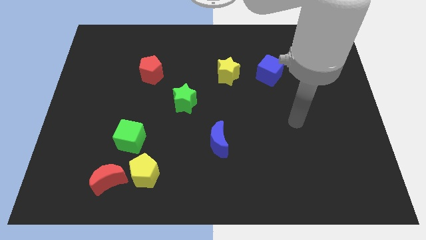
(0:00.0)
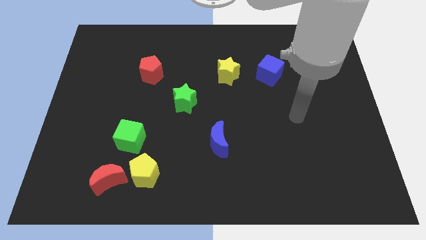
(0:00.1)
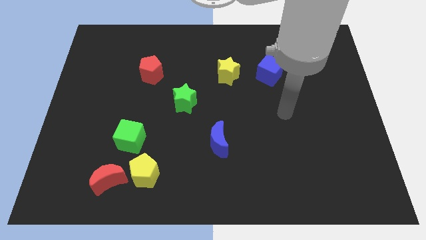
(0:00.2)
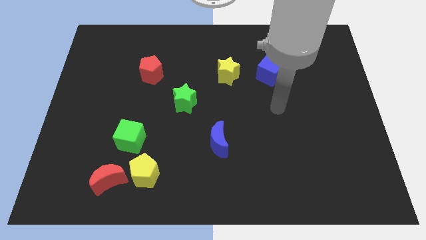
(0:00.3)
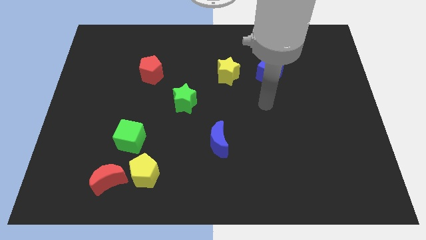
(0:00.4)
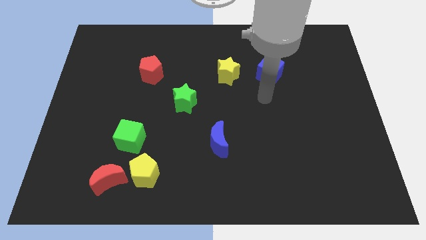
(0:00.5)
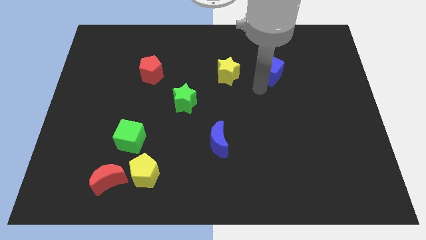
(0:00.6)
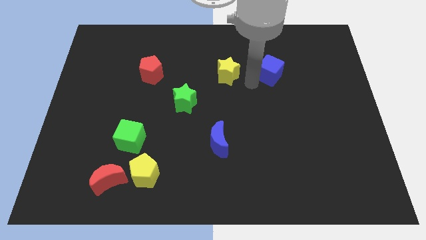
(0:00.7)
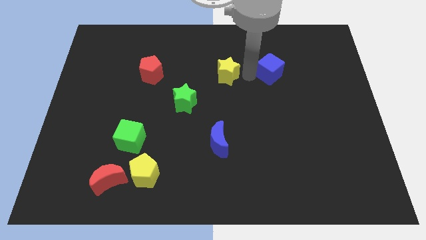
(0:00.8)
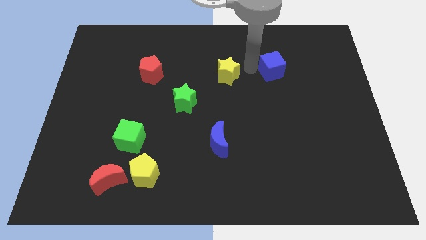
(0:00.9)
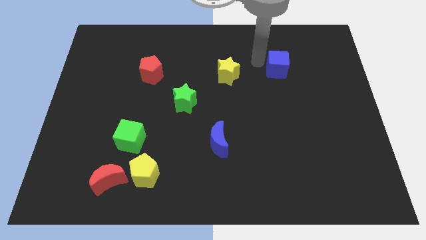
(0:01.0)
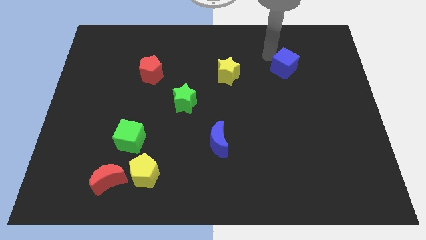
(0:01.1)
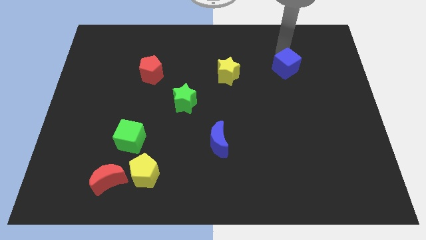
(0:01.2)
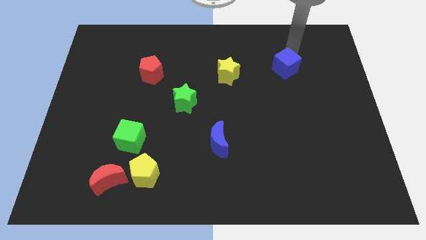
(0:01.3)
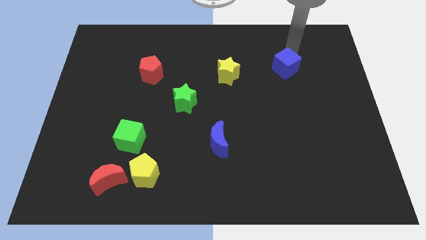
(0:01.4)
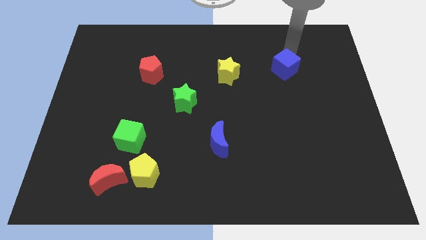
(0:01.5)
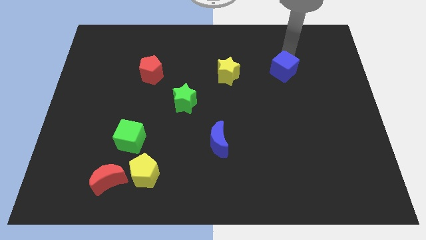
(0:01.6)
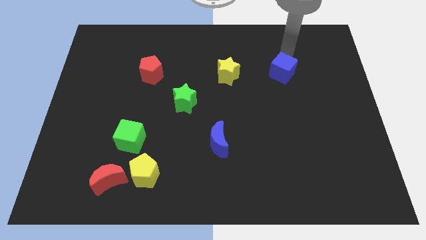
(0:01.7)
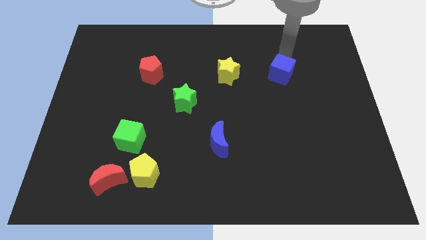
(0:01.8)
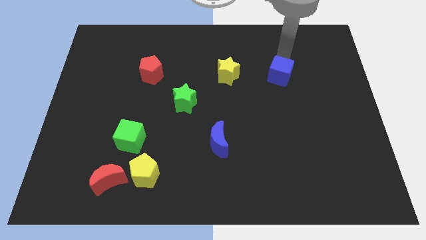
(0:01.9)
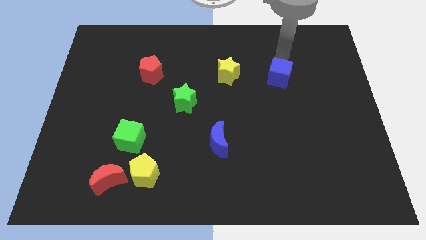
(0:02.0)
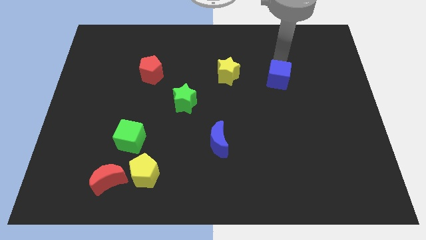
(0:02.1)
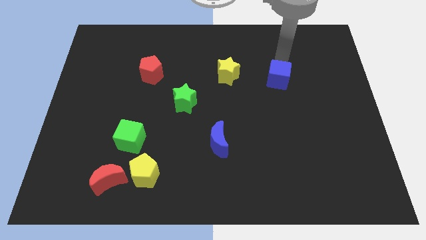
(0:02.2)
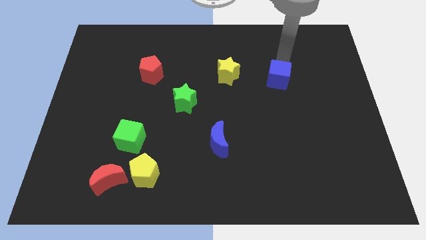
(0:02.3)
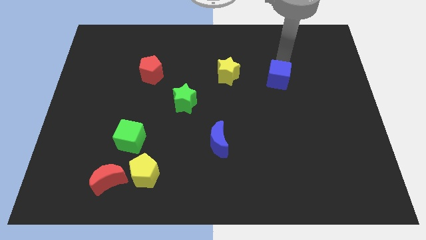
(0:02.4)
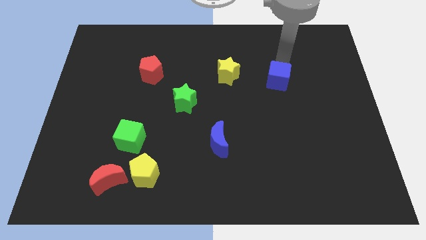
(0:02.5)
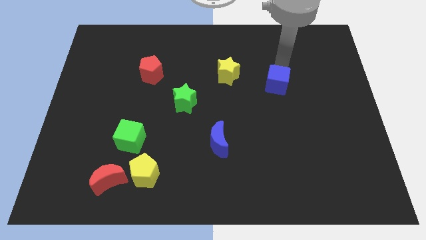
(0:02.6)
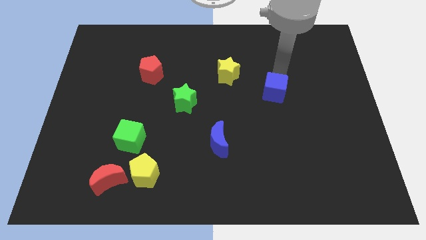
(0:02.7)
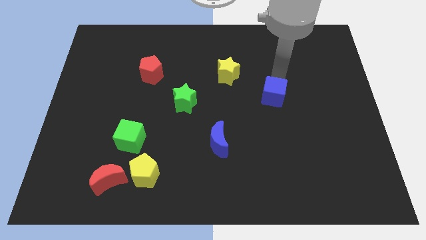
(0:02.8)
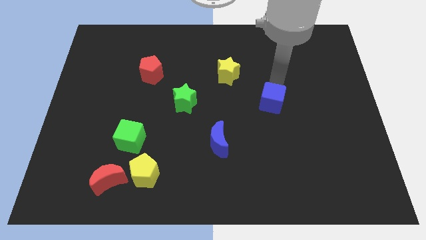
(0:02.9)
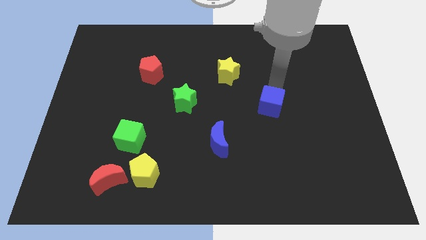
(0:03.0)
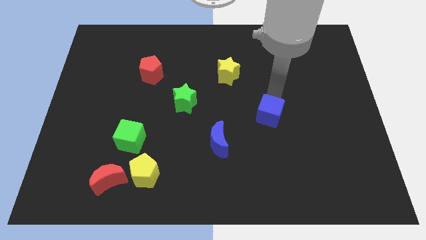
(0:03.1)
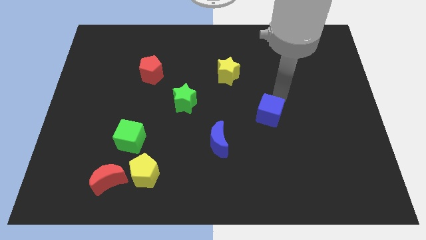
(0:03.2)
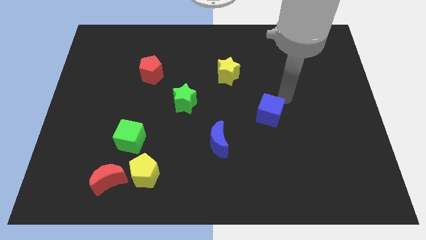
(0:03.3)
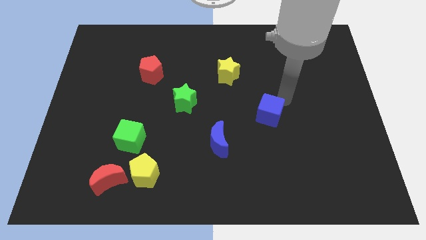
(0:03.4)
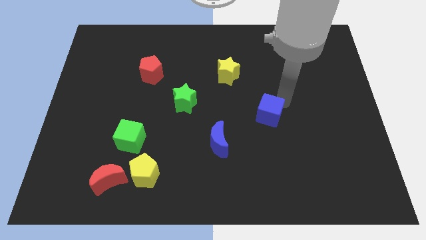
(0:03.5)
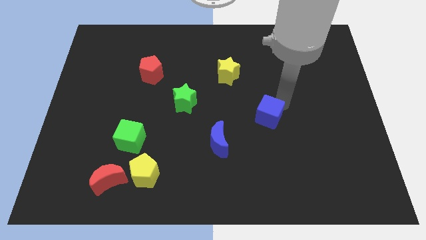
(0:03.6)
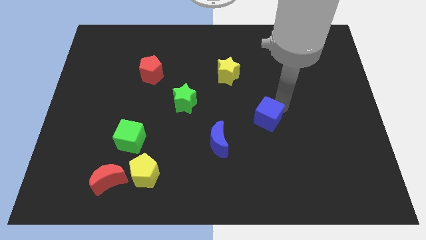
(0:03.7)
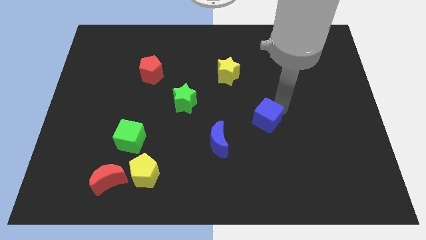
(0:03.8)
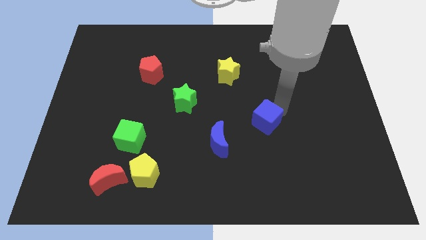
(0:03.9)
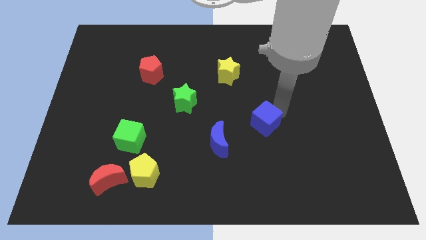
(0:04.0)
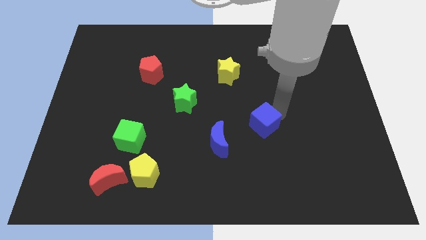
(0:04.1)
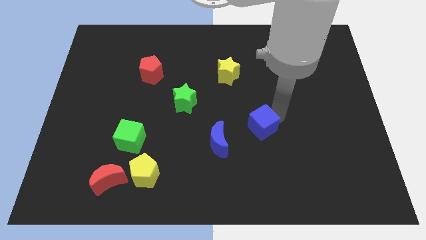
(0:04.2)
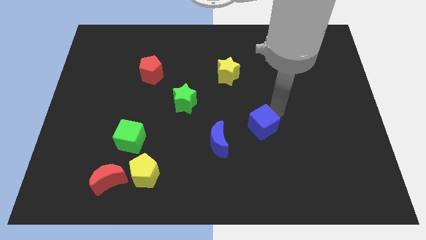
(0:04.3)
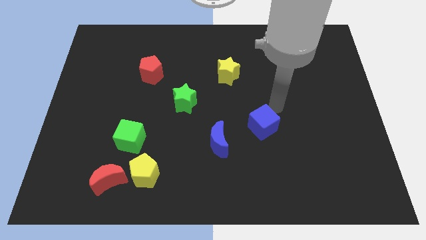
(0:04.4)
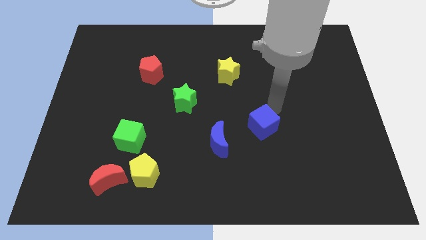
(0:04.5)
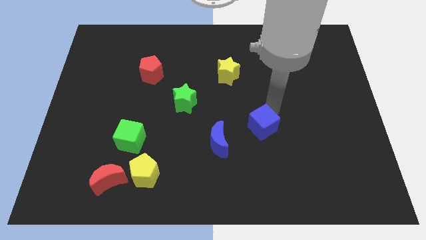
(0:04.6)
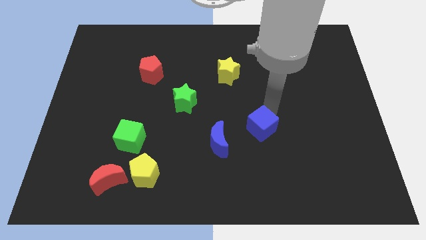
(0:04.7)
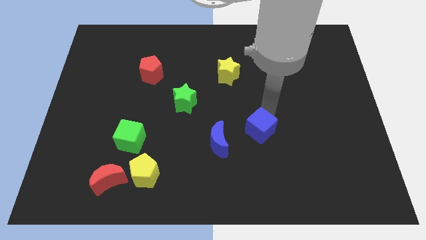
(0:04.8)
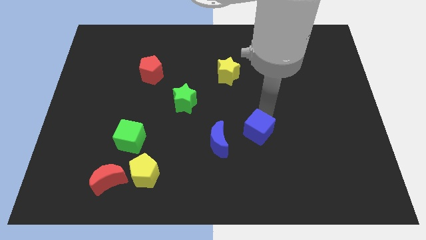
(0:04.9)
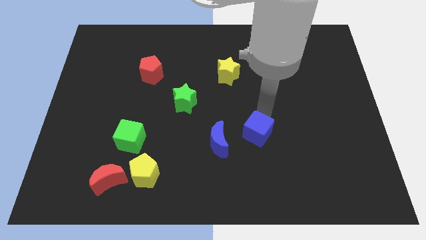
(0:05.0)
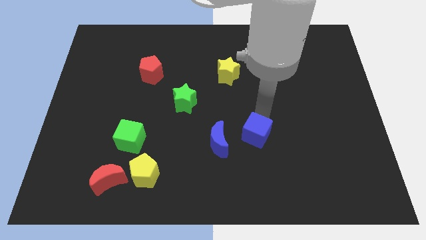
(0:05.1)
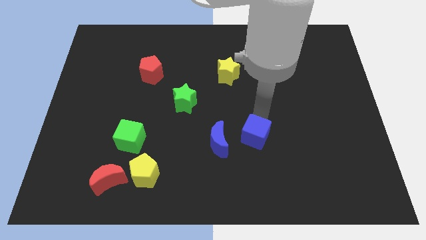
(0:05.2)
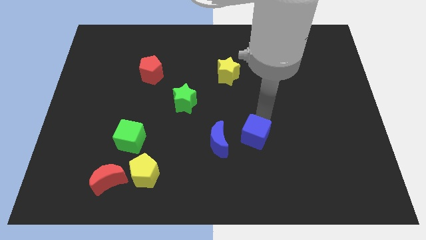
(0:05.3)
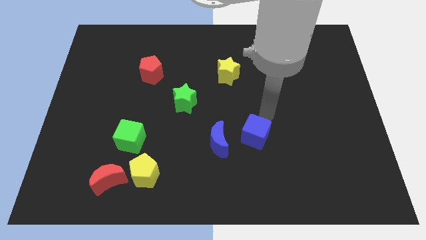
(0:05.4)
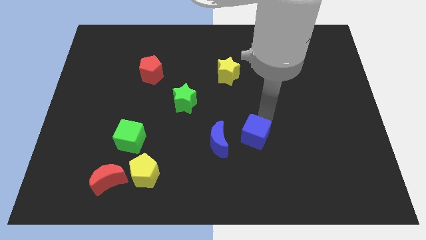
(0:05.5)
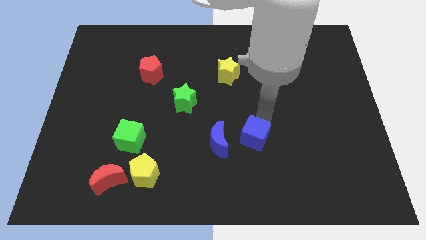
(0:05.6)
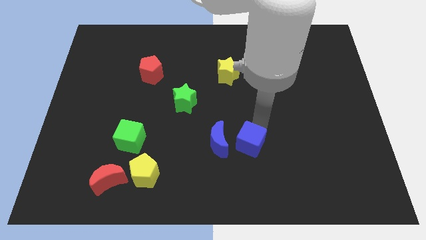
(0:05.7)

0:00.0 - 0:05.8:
push the blue cube to the bottom right side of the blue moon

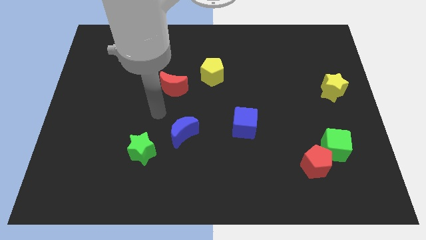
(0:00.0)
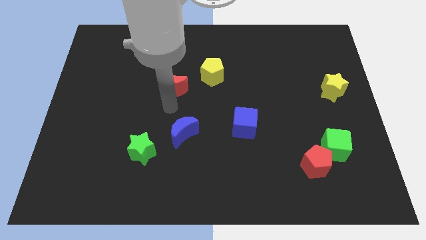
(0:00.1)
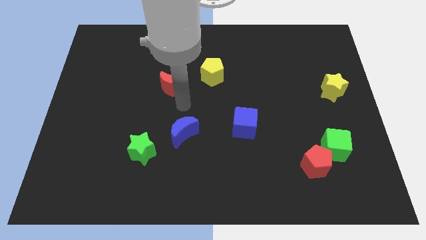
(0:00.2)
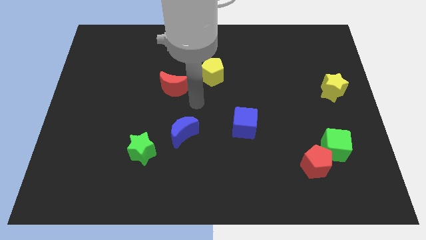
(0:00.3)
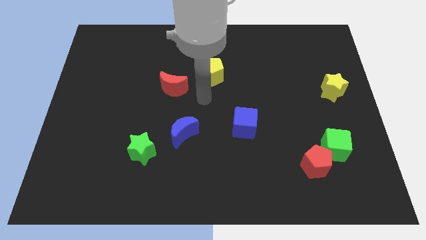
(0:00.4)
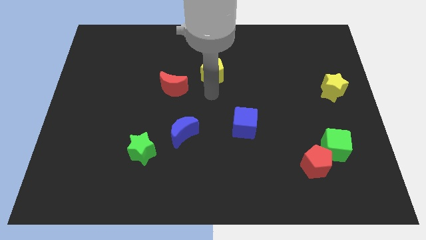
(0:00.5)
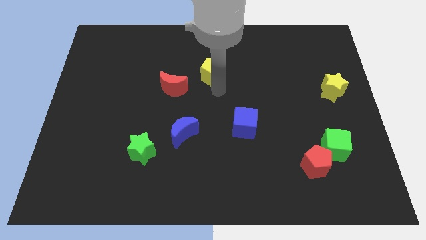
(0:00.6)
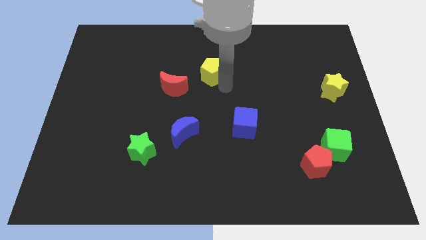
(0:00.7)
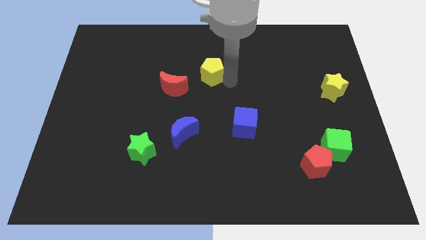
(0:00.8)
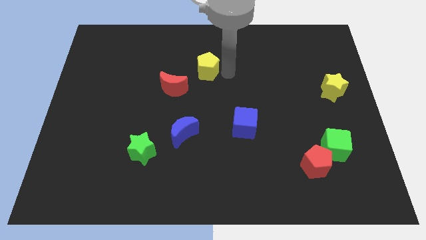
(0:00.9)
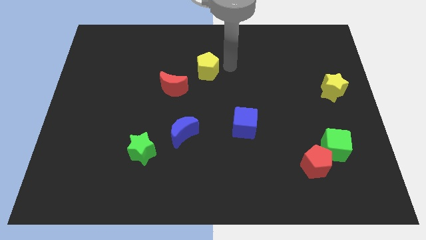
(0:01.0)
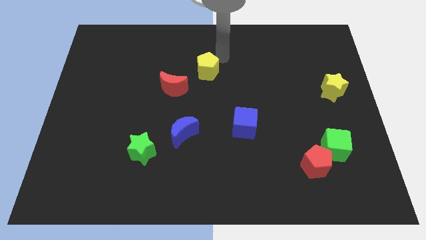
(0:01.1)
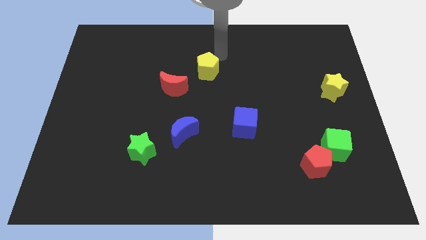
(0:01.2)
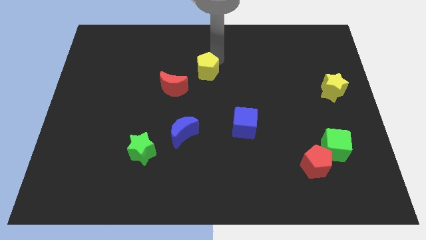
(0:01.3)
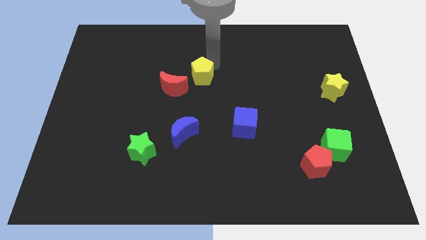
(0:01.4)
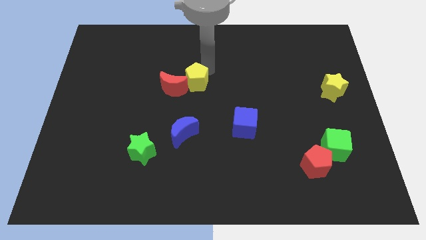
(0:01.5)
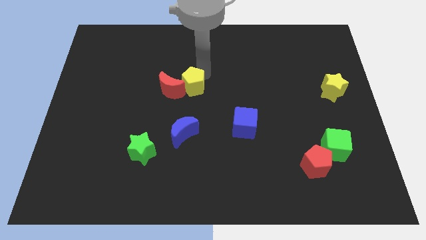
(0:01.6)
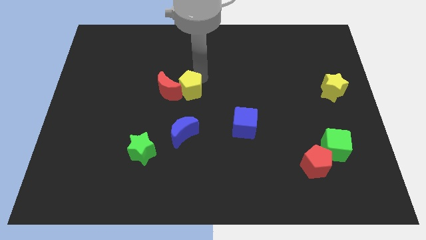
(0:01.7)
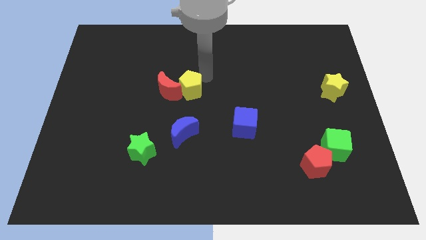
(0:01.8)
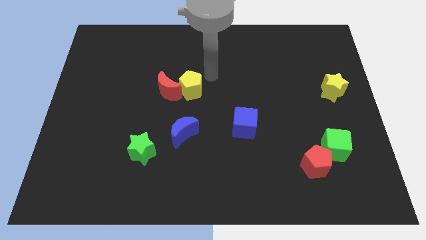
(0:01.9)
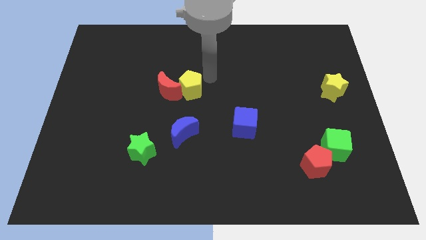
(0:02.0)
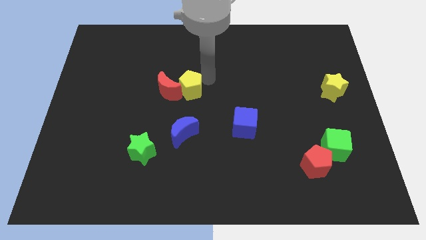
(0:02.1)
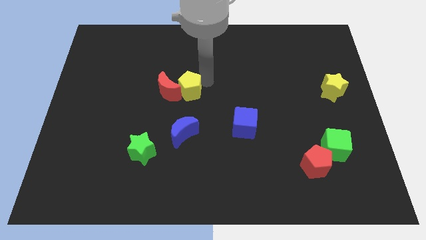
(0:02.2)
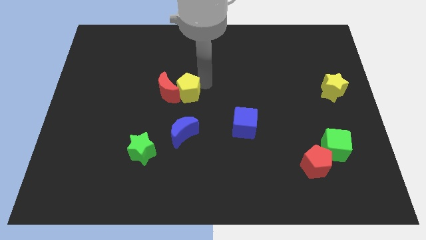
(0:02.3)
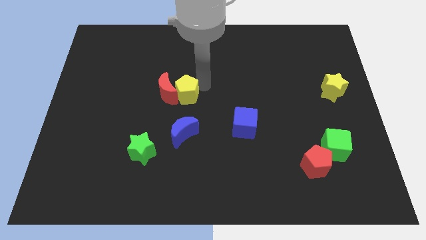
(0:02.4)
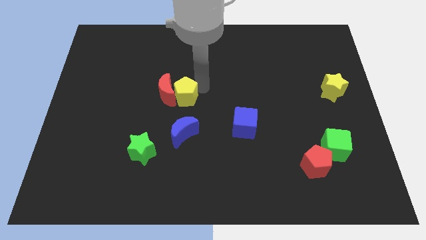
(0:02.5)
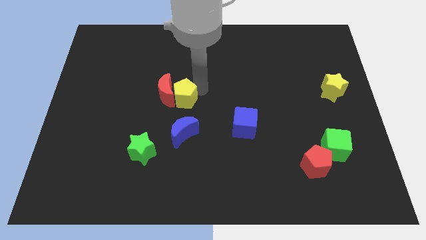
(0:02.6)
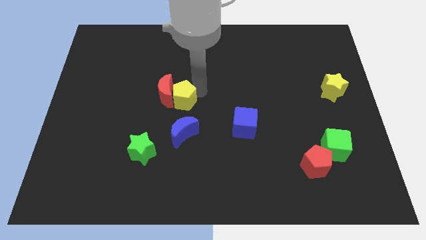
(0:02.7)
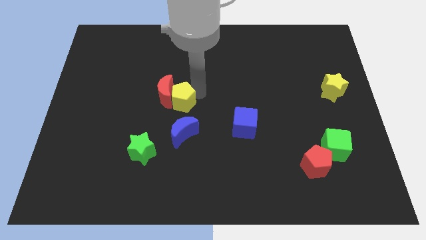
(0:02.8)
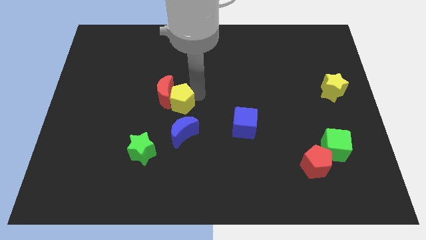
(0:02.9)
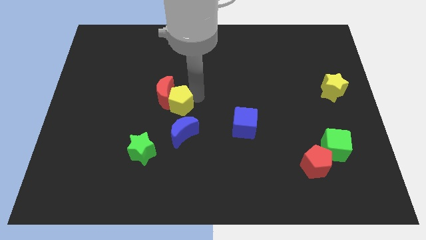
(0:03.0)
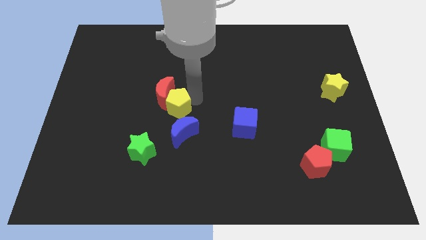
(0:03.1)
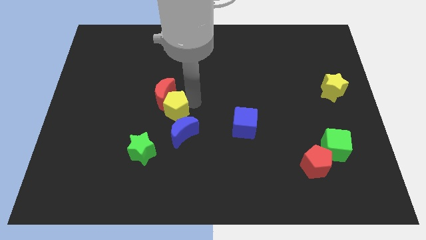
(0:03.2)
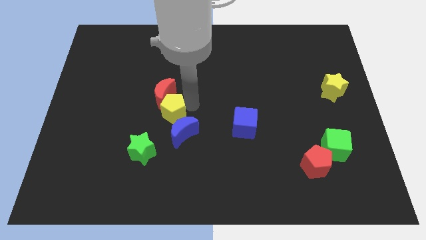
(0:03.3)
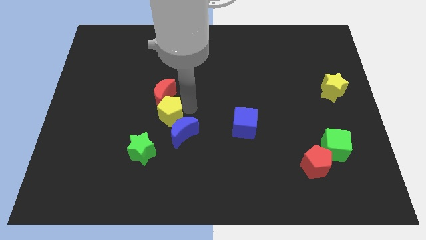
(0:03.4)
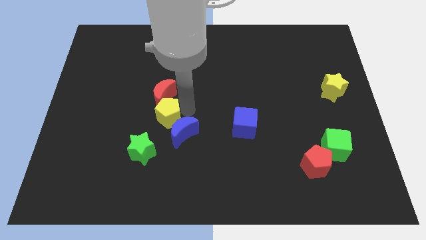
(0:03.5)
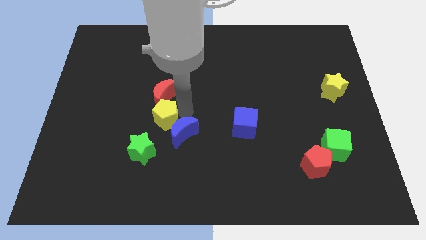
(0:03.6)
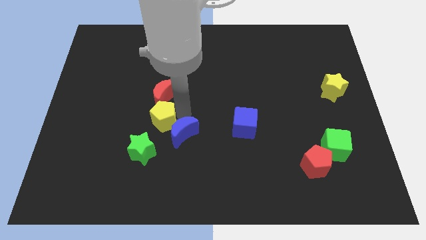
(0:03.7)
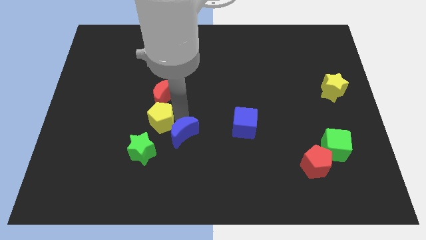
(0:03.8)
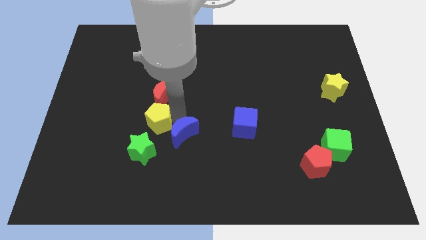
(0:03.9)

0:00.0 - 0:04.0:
push the yellow pentagon diagonally down and to the left of the red moon
